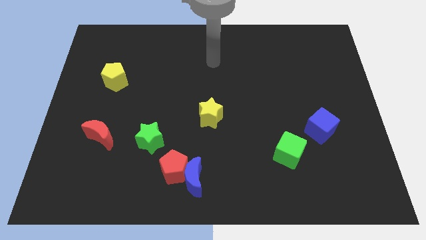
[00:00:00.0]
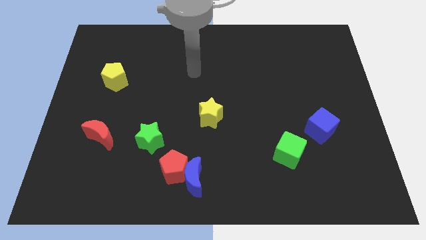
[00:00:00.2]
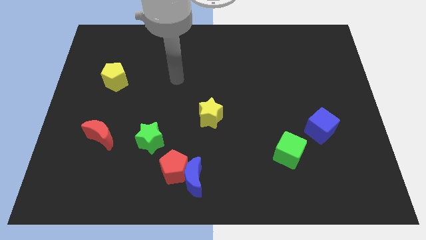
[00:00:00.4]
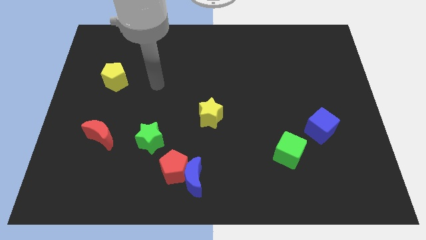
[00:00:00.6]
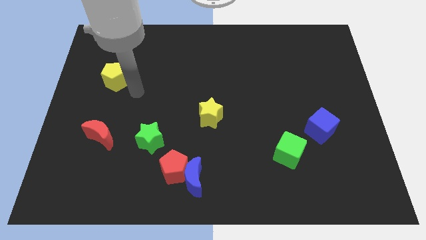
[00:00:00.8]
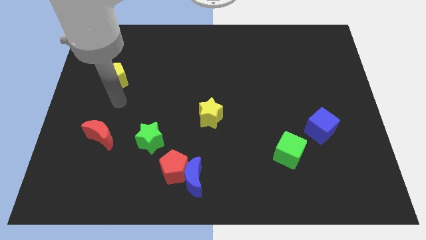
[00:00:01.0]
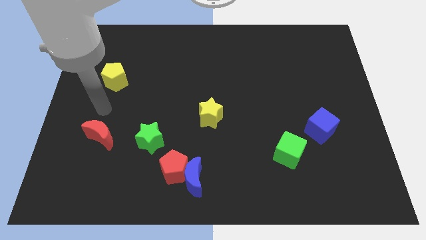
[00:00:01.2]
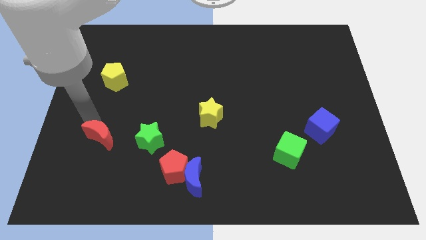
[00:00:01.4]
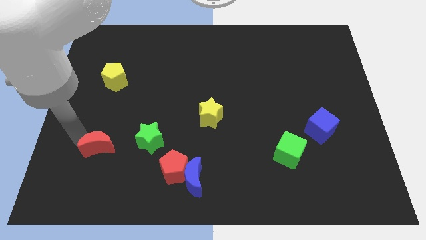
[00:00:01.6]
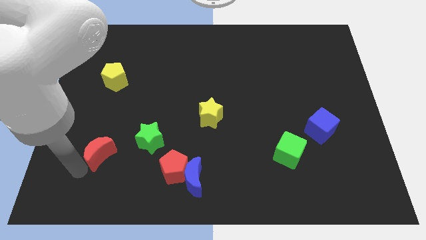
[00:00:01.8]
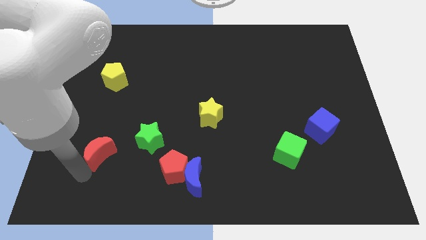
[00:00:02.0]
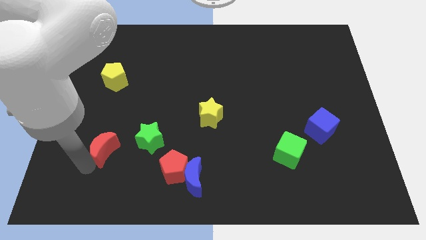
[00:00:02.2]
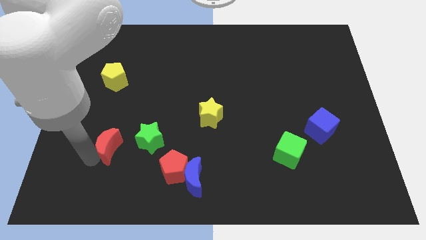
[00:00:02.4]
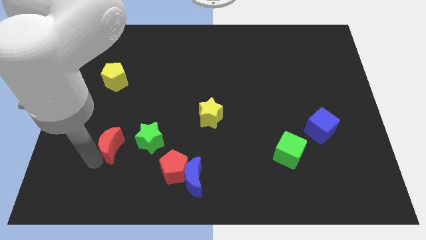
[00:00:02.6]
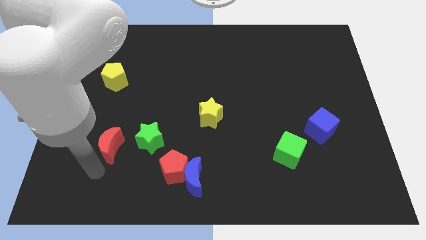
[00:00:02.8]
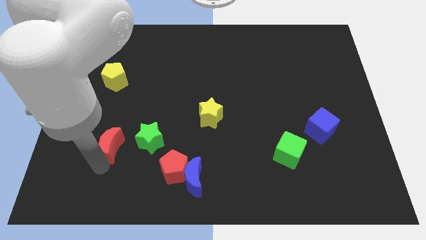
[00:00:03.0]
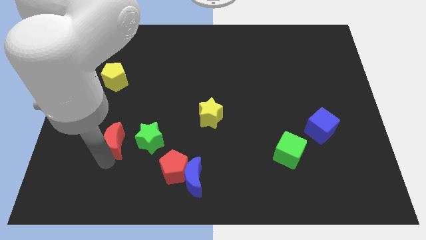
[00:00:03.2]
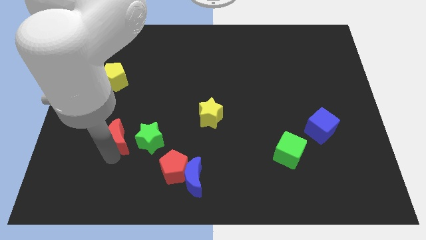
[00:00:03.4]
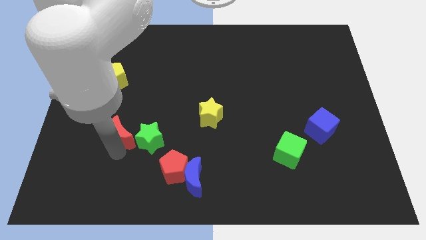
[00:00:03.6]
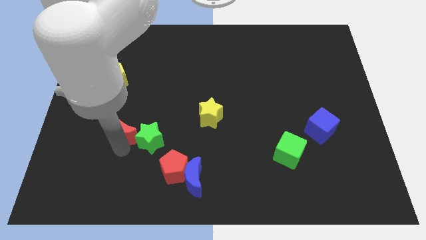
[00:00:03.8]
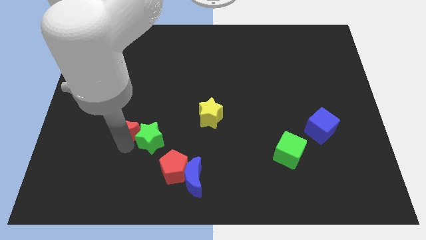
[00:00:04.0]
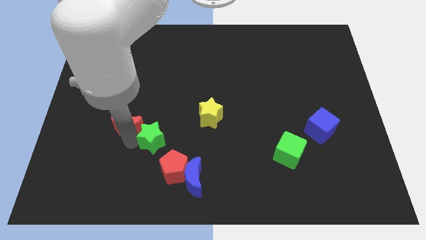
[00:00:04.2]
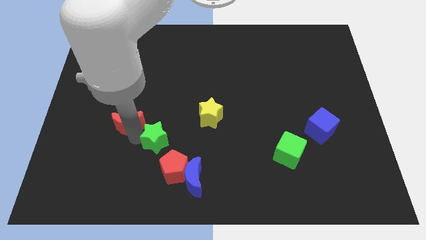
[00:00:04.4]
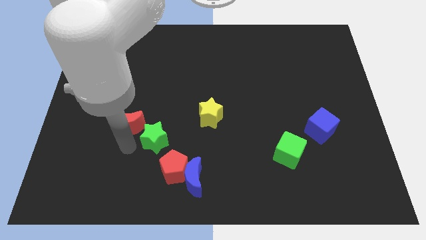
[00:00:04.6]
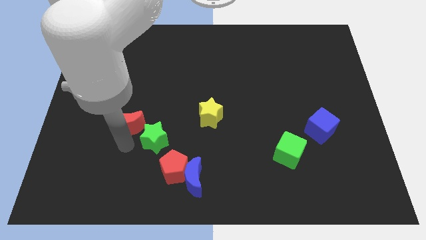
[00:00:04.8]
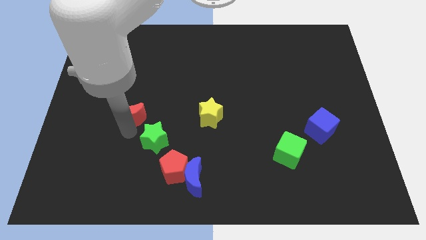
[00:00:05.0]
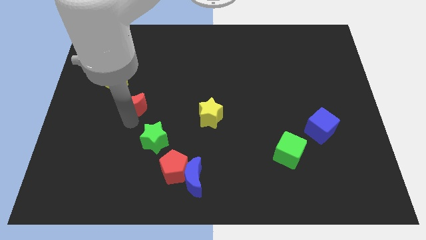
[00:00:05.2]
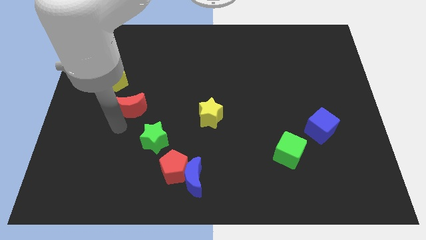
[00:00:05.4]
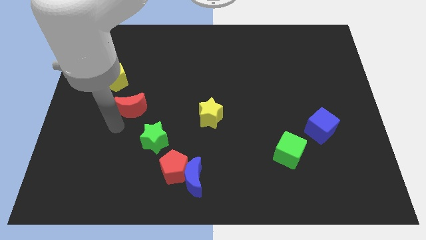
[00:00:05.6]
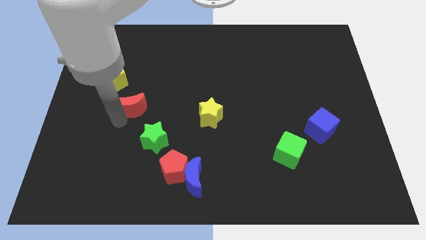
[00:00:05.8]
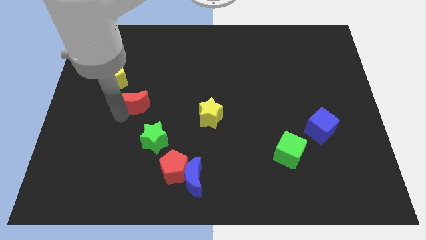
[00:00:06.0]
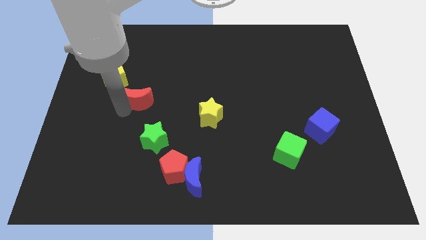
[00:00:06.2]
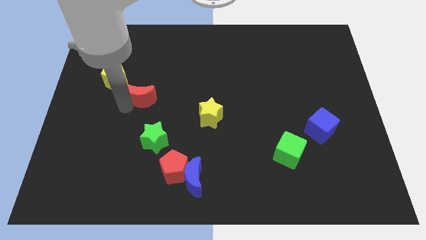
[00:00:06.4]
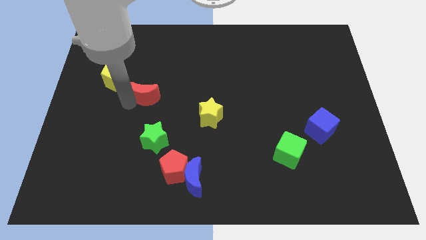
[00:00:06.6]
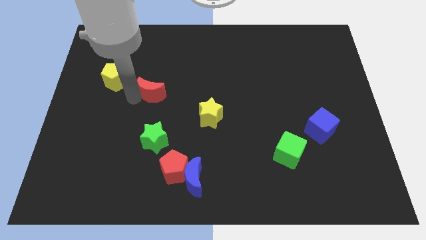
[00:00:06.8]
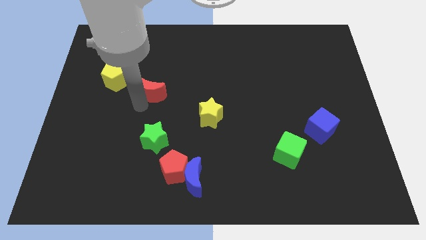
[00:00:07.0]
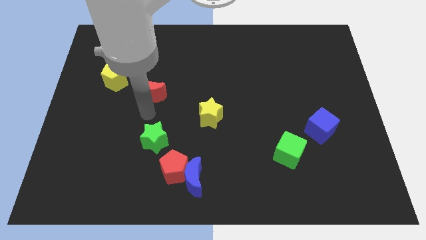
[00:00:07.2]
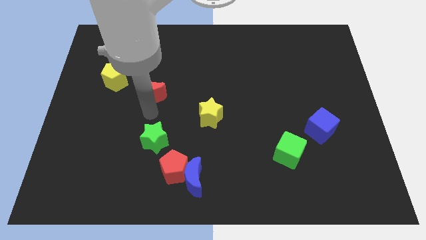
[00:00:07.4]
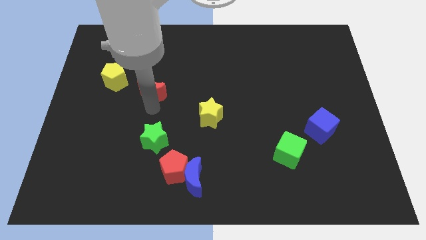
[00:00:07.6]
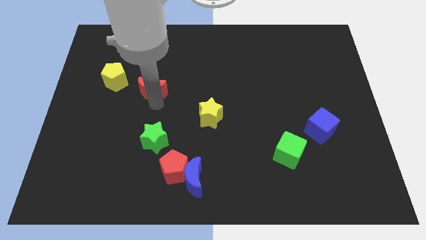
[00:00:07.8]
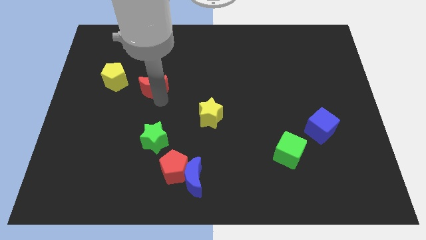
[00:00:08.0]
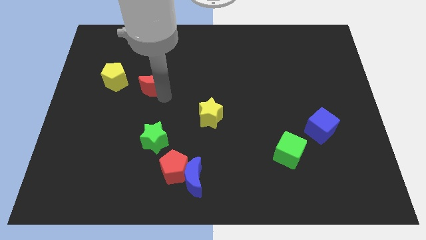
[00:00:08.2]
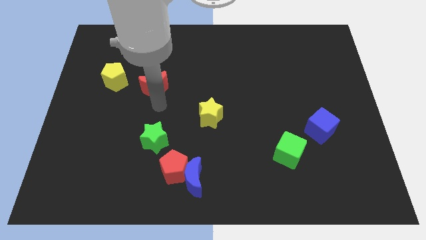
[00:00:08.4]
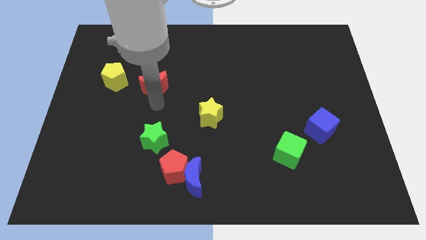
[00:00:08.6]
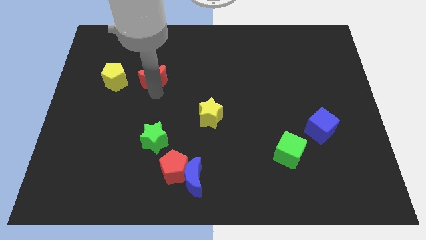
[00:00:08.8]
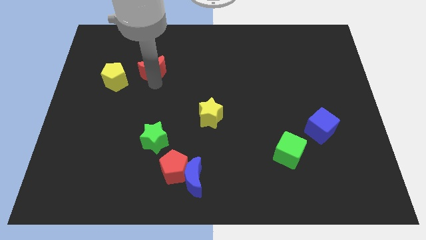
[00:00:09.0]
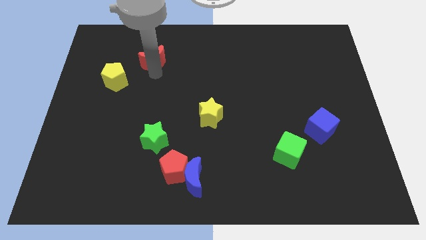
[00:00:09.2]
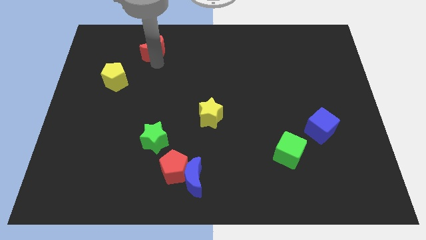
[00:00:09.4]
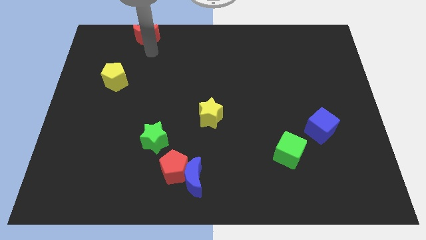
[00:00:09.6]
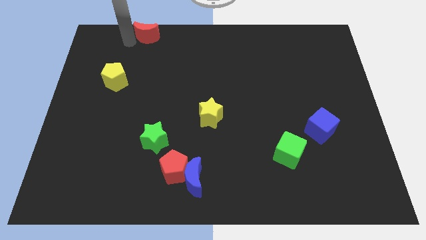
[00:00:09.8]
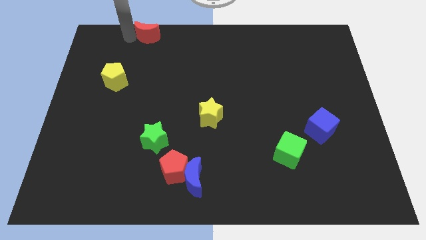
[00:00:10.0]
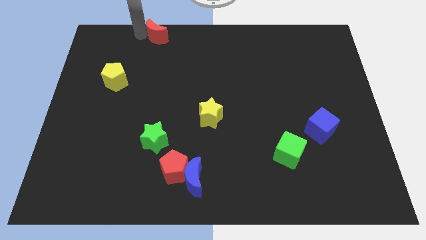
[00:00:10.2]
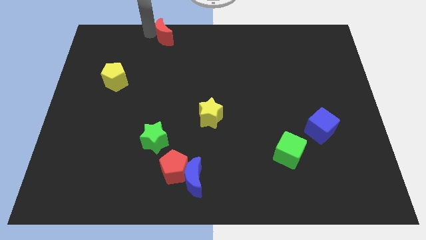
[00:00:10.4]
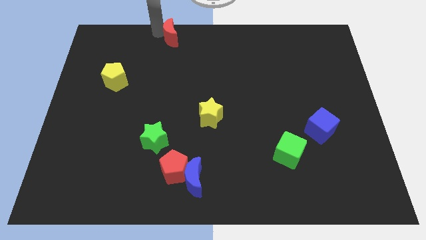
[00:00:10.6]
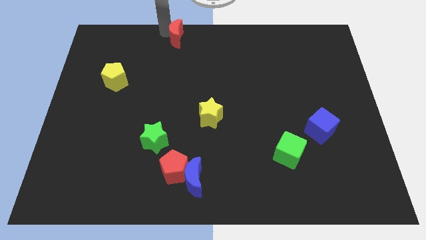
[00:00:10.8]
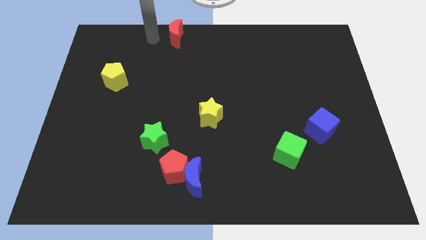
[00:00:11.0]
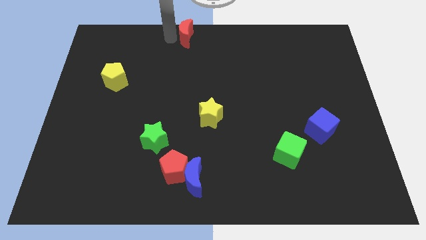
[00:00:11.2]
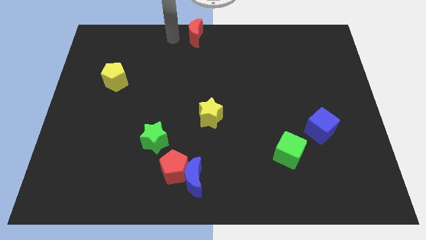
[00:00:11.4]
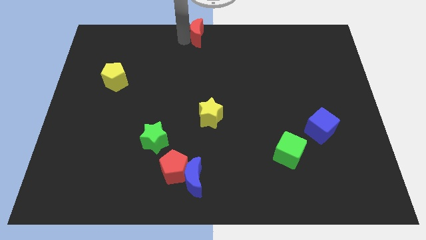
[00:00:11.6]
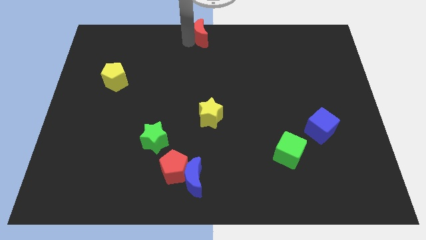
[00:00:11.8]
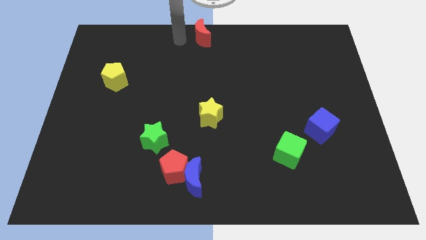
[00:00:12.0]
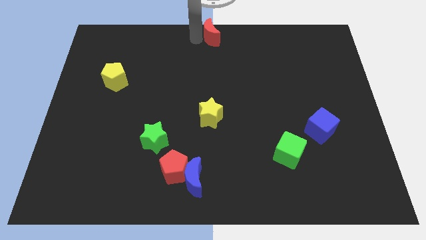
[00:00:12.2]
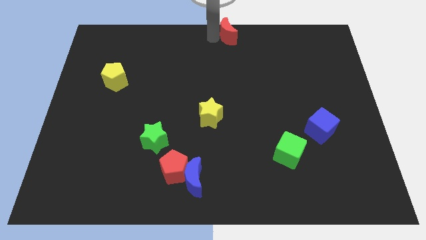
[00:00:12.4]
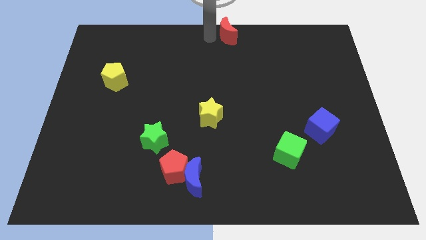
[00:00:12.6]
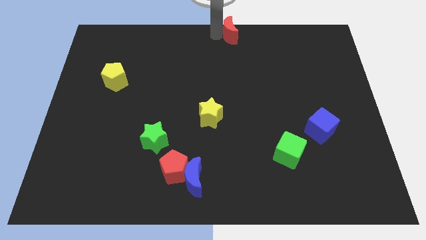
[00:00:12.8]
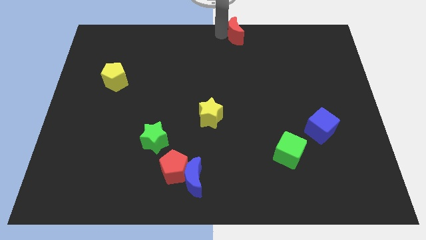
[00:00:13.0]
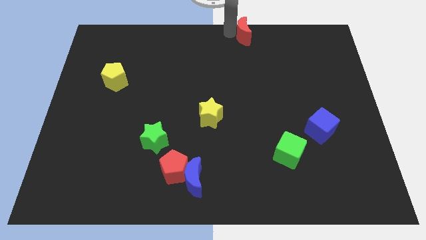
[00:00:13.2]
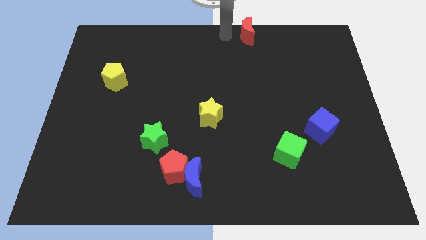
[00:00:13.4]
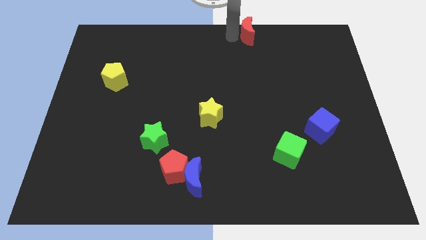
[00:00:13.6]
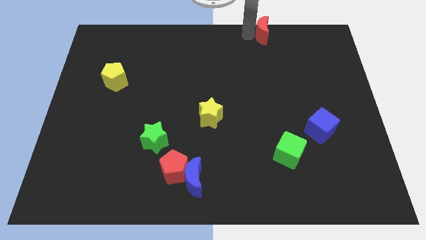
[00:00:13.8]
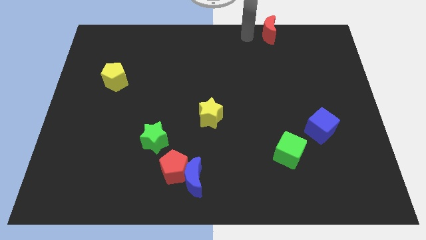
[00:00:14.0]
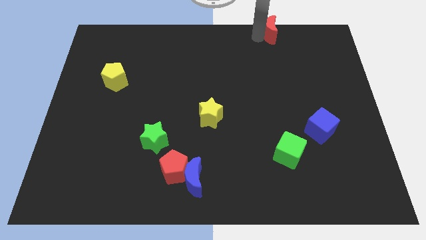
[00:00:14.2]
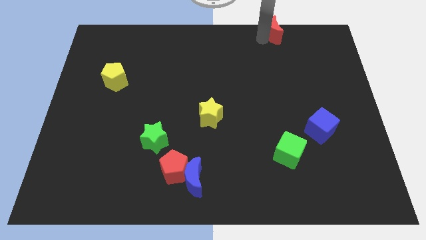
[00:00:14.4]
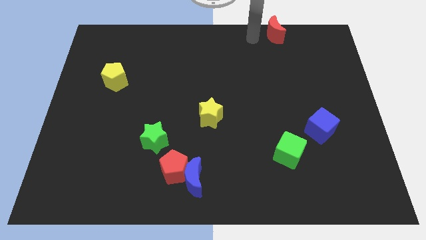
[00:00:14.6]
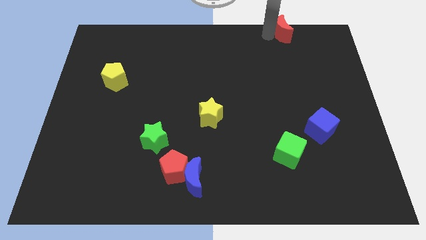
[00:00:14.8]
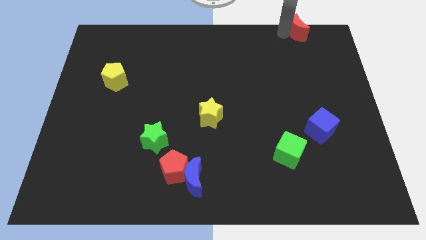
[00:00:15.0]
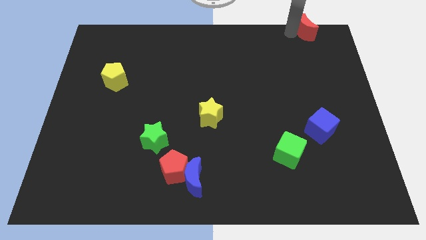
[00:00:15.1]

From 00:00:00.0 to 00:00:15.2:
slide the red moon to the upper right corner
